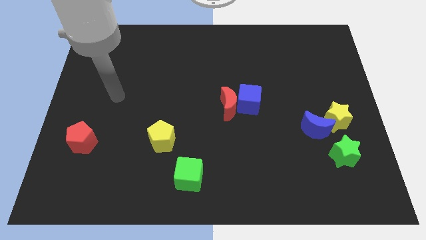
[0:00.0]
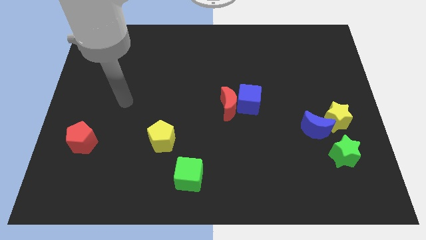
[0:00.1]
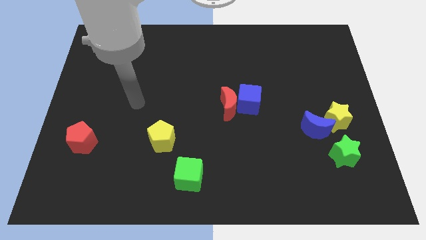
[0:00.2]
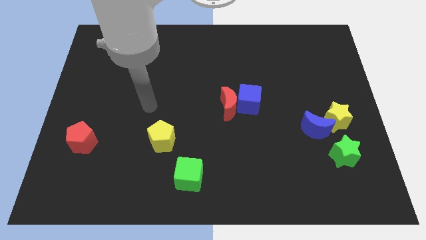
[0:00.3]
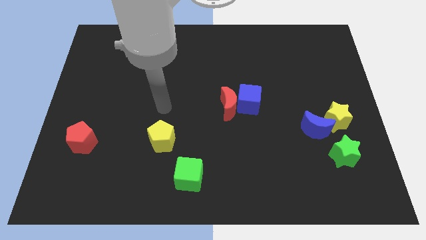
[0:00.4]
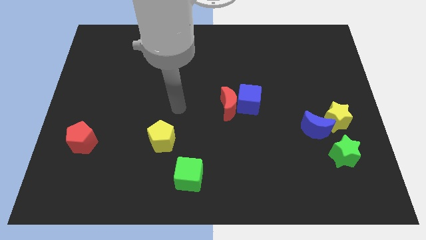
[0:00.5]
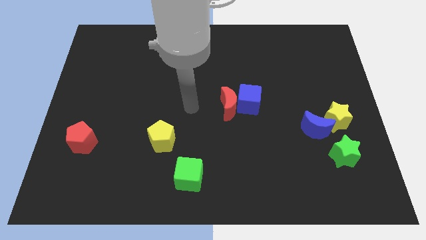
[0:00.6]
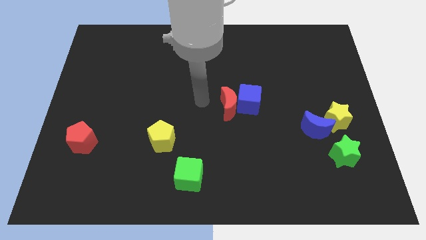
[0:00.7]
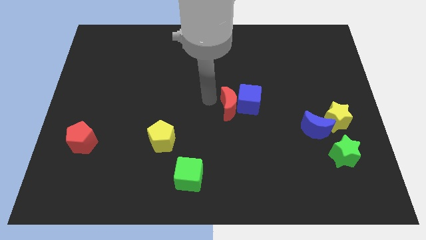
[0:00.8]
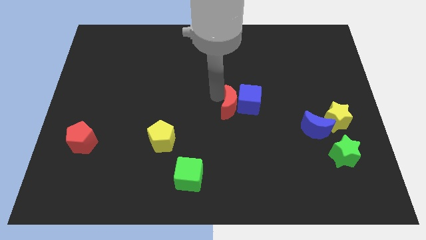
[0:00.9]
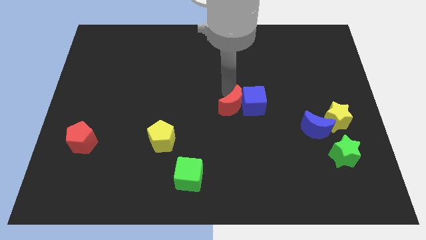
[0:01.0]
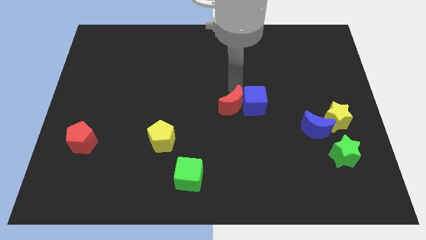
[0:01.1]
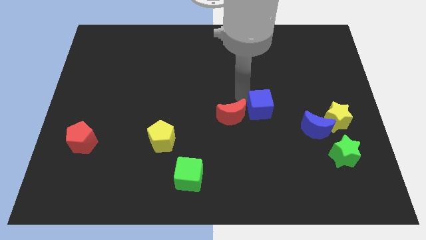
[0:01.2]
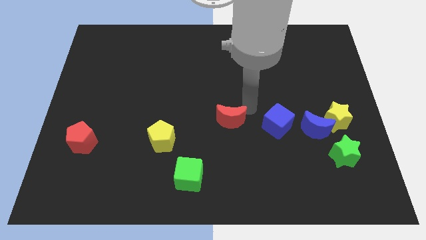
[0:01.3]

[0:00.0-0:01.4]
move the red moon away from the blue cube

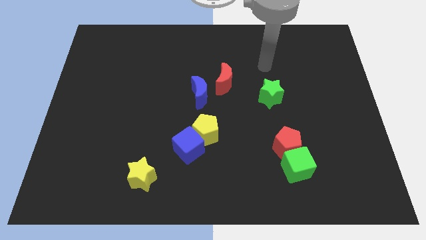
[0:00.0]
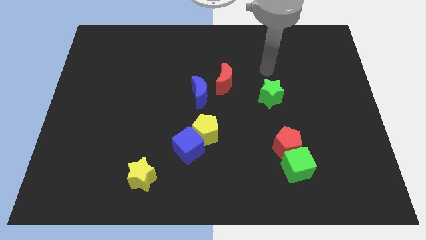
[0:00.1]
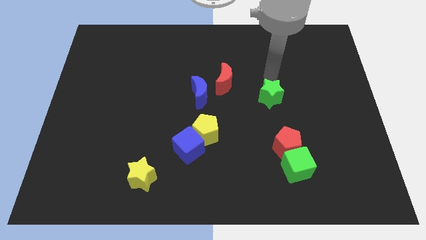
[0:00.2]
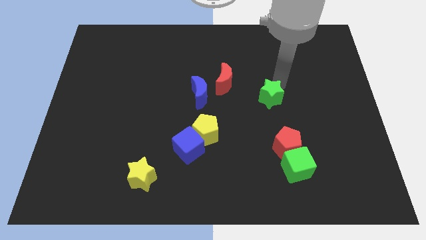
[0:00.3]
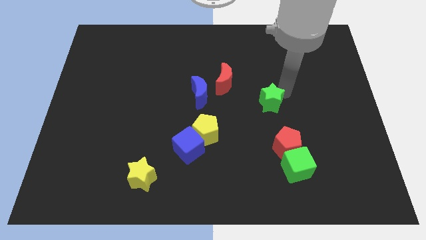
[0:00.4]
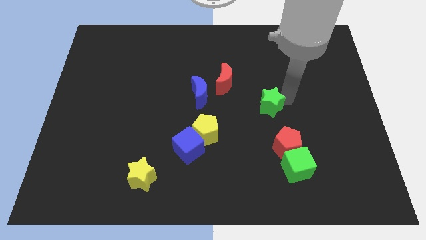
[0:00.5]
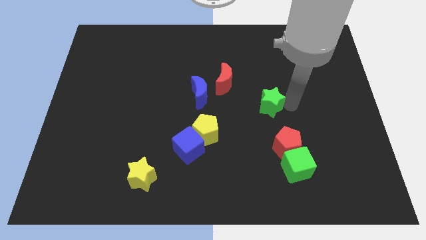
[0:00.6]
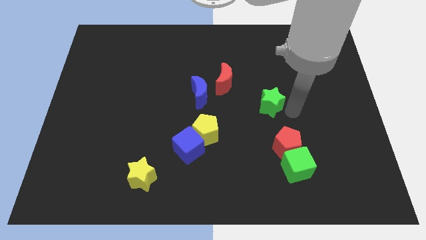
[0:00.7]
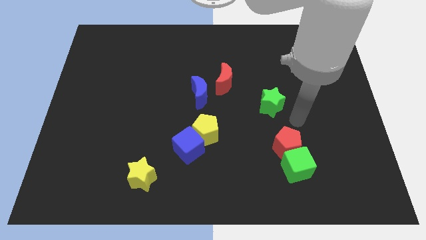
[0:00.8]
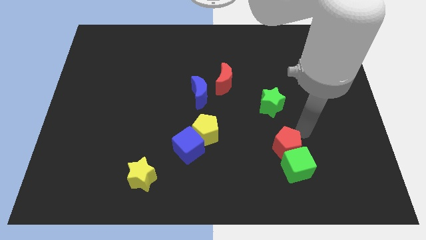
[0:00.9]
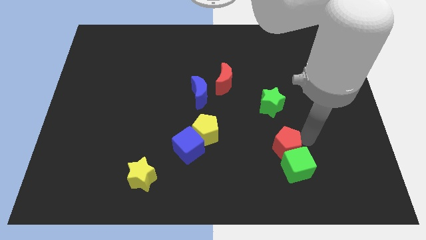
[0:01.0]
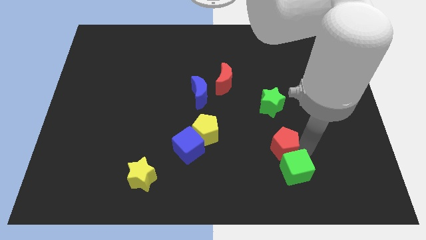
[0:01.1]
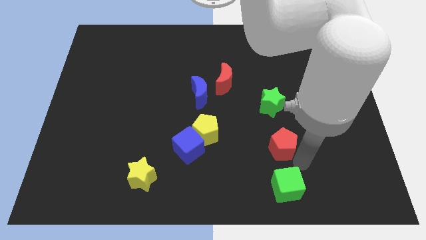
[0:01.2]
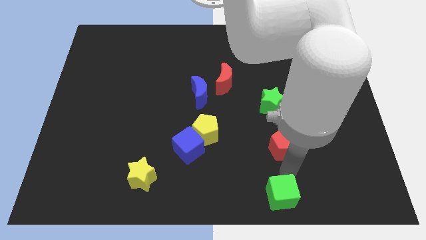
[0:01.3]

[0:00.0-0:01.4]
move the red pentagon away from the green cube

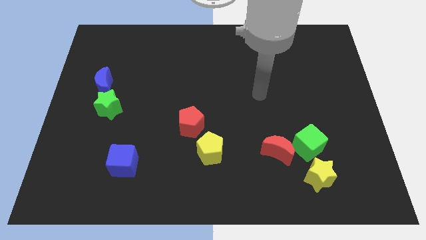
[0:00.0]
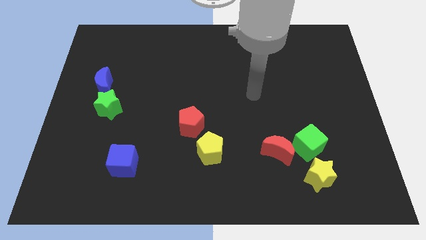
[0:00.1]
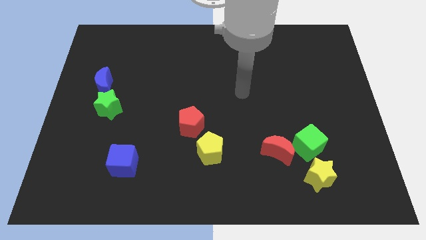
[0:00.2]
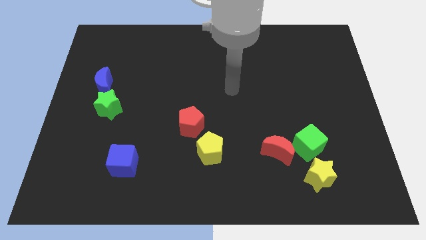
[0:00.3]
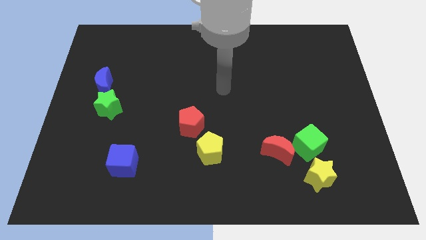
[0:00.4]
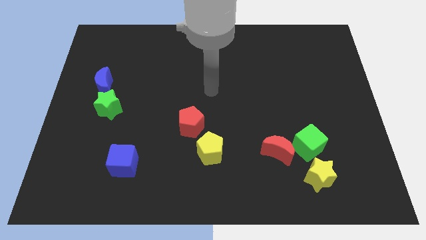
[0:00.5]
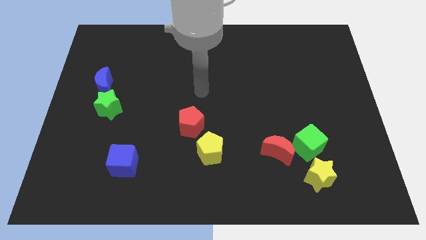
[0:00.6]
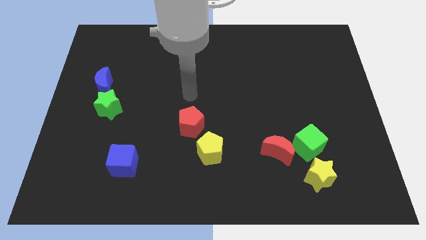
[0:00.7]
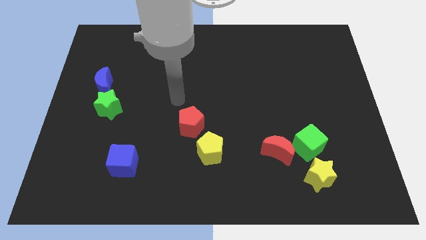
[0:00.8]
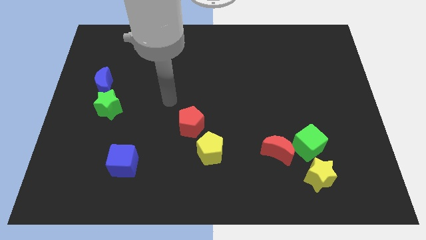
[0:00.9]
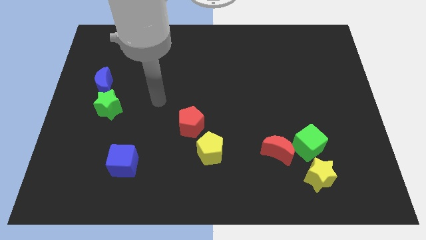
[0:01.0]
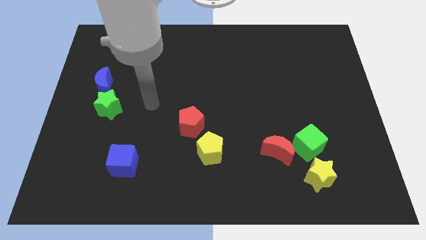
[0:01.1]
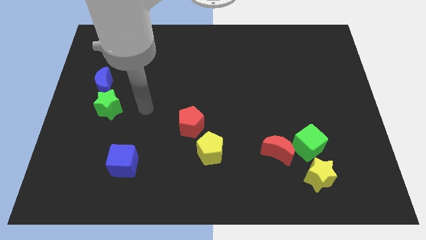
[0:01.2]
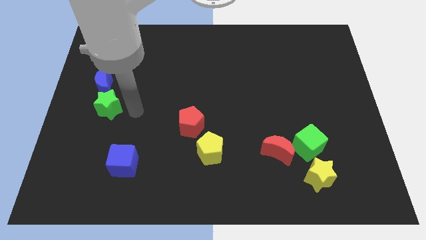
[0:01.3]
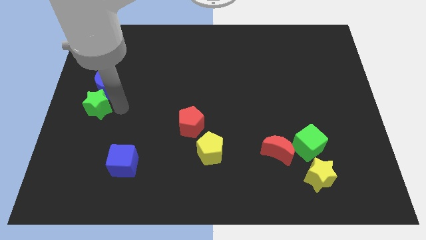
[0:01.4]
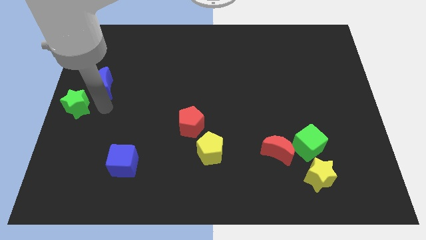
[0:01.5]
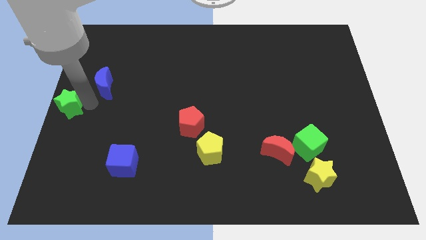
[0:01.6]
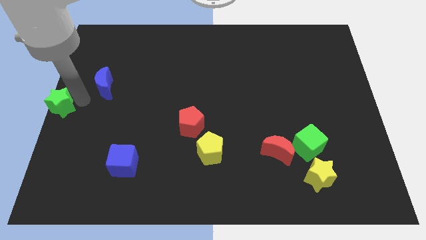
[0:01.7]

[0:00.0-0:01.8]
pull the blue moon apart from the green star

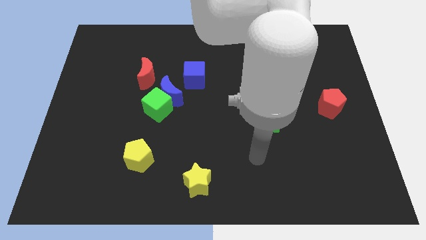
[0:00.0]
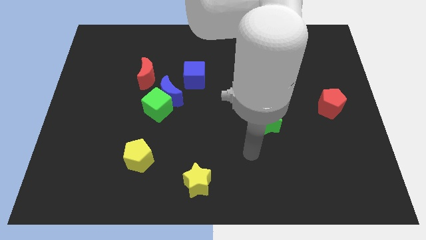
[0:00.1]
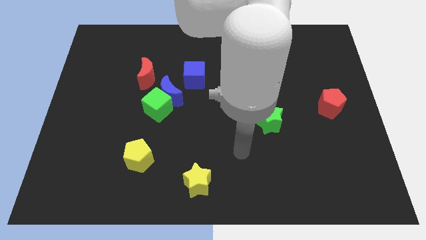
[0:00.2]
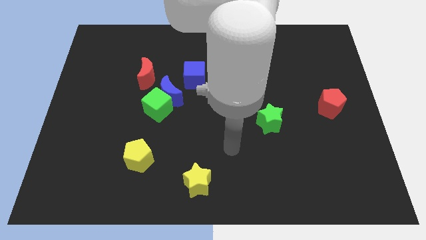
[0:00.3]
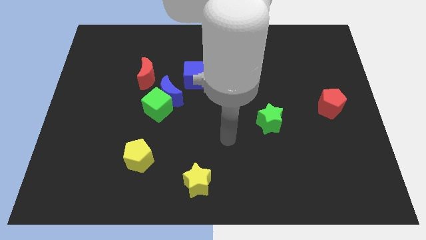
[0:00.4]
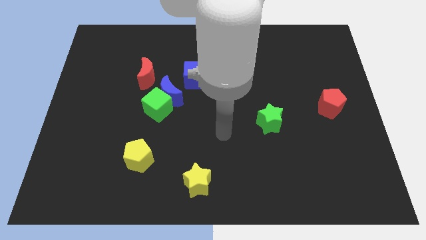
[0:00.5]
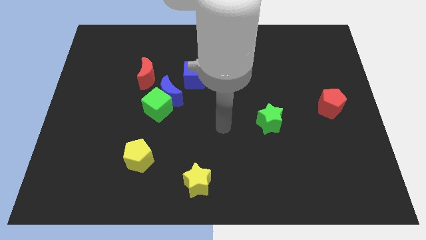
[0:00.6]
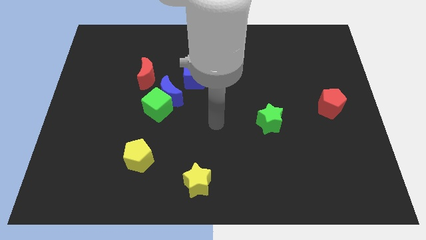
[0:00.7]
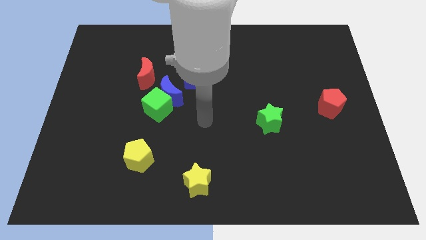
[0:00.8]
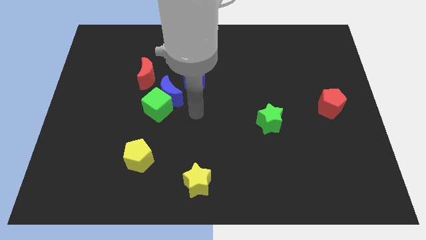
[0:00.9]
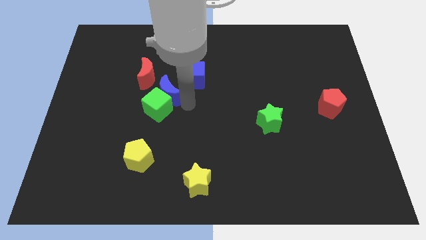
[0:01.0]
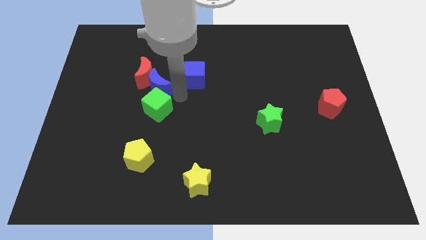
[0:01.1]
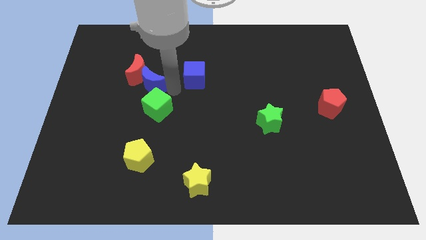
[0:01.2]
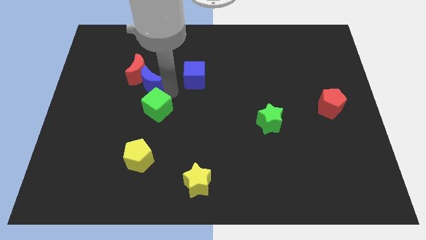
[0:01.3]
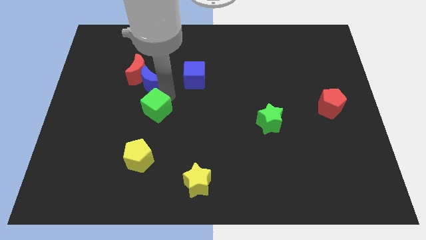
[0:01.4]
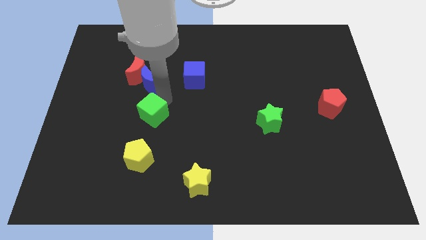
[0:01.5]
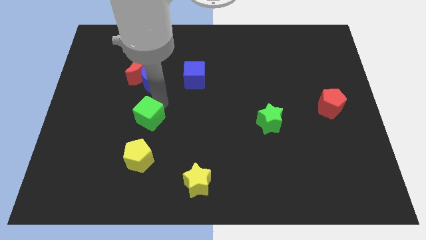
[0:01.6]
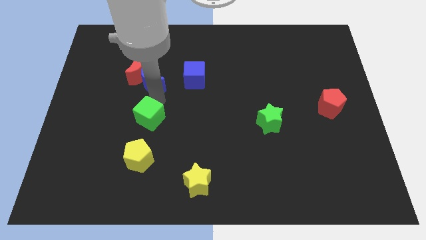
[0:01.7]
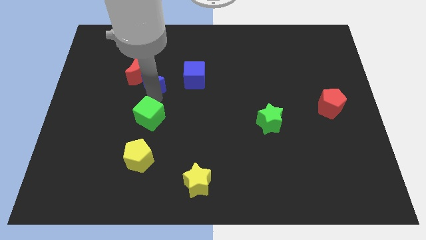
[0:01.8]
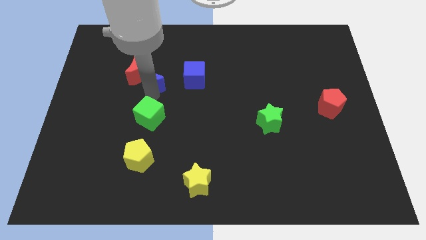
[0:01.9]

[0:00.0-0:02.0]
separate the green cube from the blue moon

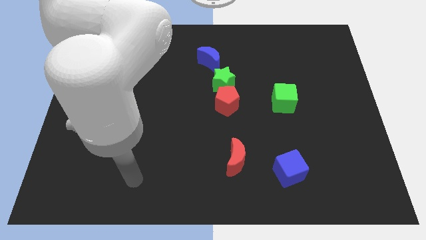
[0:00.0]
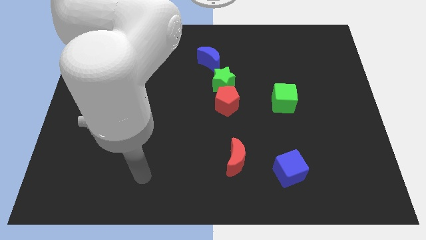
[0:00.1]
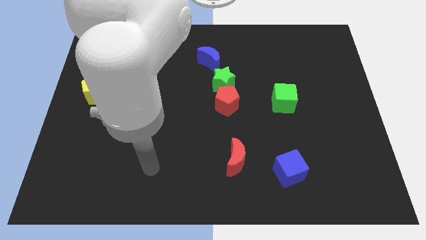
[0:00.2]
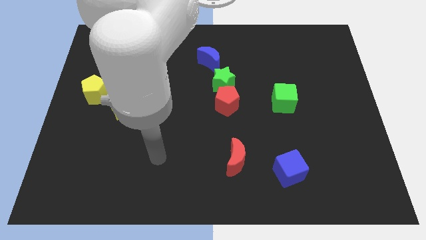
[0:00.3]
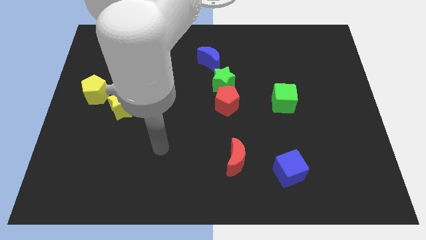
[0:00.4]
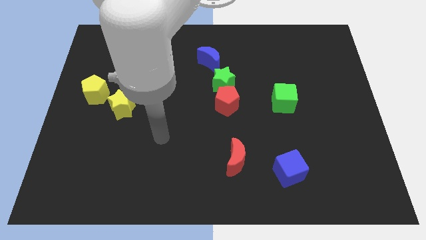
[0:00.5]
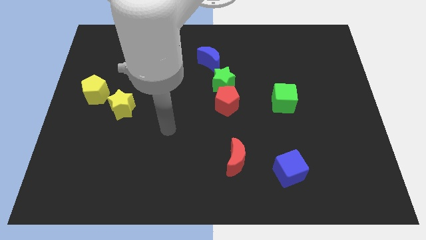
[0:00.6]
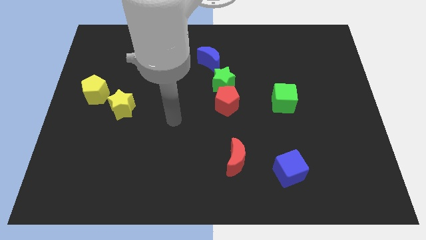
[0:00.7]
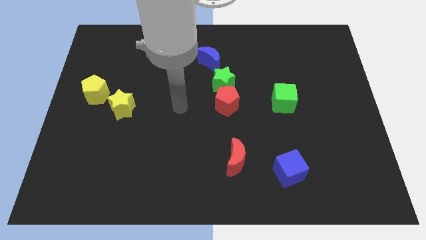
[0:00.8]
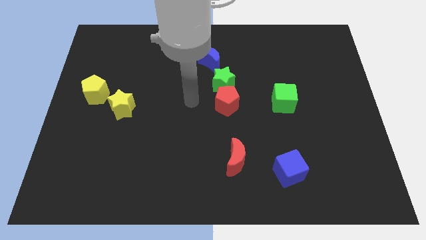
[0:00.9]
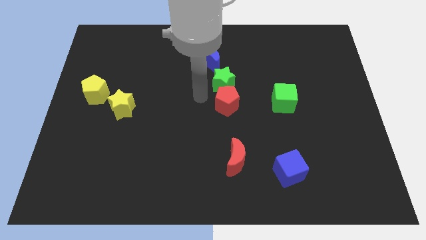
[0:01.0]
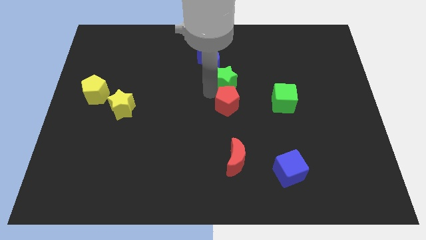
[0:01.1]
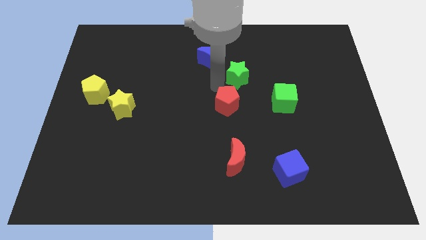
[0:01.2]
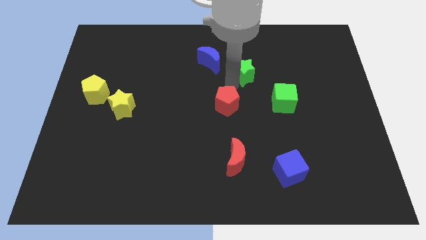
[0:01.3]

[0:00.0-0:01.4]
separate the red pentagon from the green star

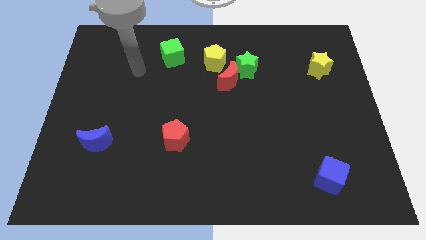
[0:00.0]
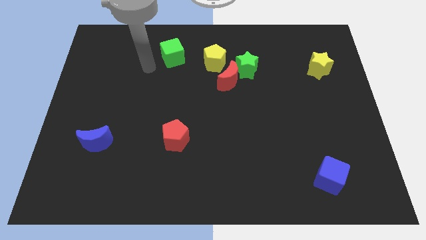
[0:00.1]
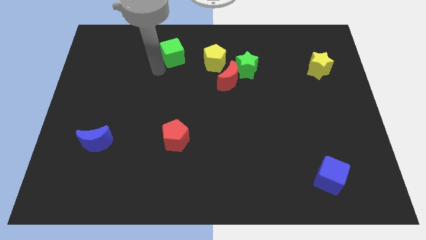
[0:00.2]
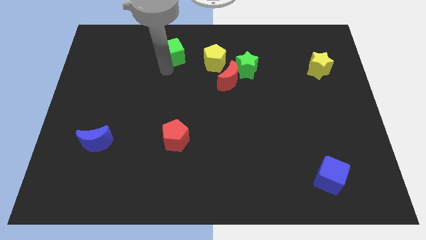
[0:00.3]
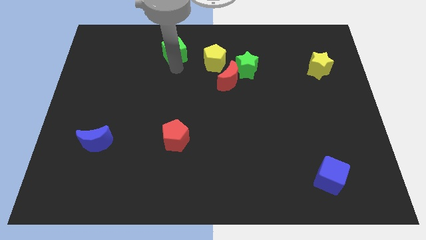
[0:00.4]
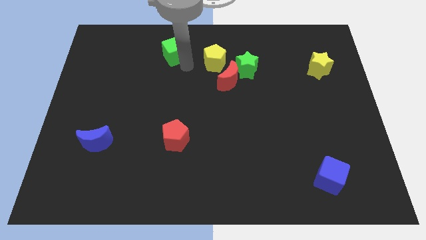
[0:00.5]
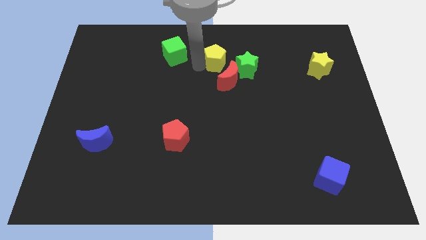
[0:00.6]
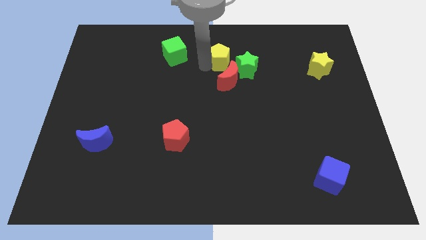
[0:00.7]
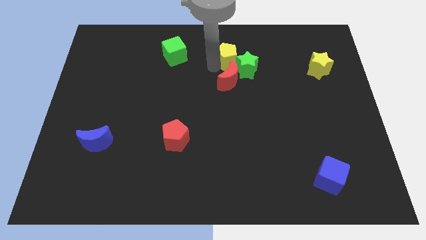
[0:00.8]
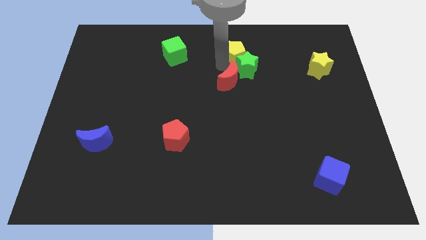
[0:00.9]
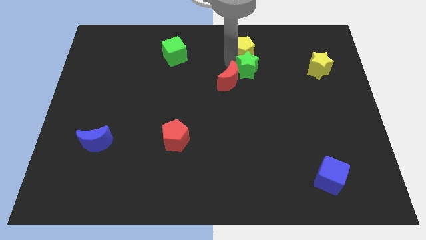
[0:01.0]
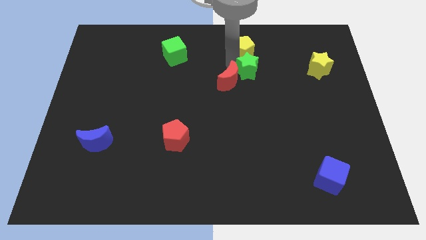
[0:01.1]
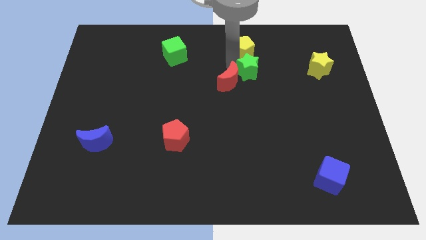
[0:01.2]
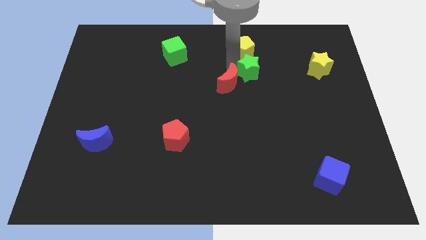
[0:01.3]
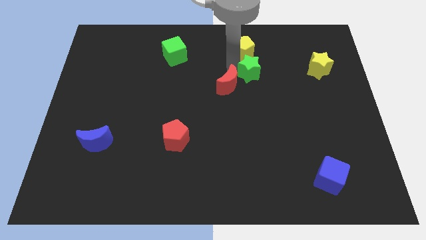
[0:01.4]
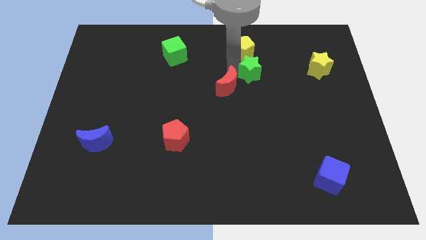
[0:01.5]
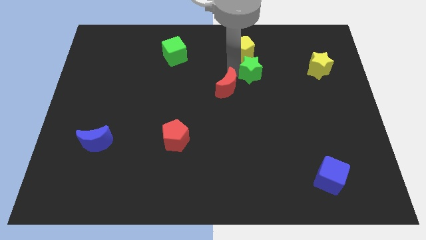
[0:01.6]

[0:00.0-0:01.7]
separate the red moon from the green star and yellow pentagon
